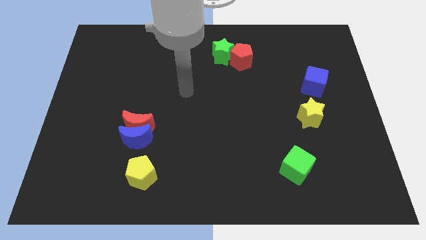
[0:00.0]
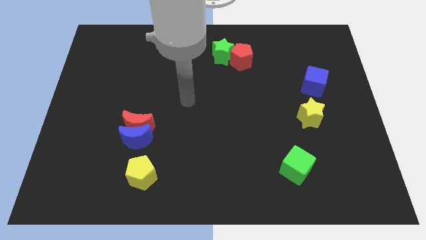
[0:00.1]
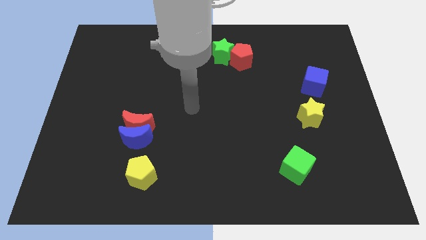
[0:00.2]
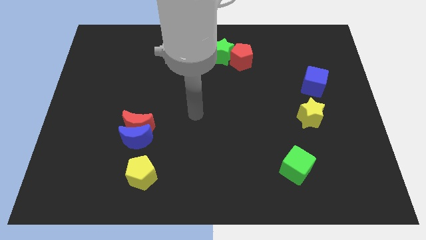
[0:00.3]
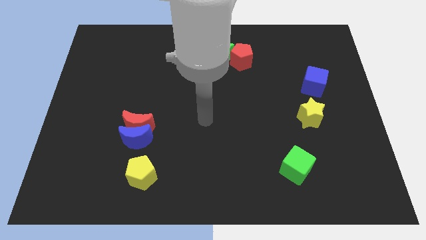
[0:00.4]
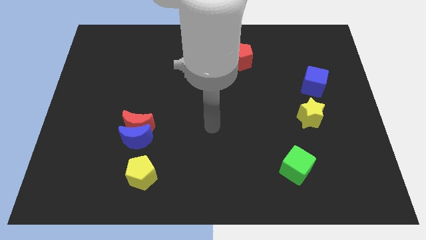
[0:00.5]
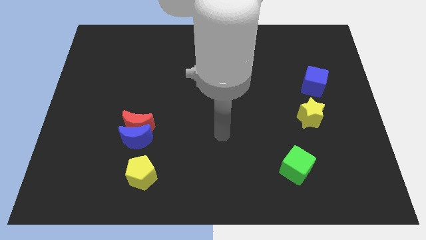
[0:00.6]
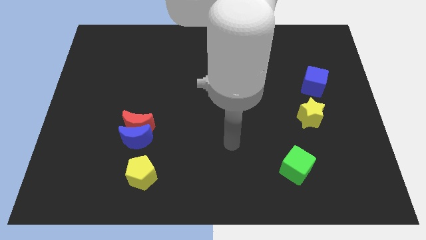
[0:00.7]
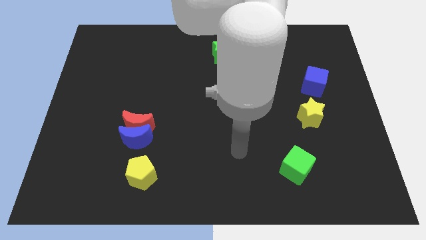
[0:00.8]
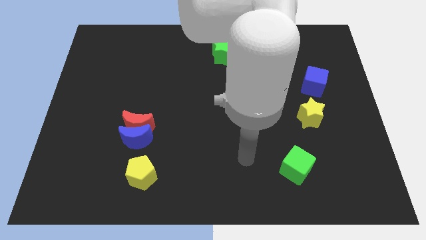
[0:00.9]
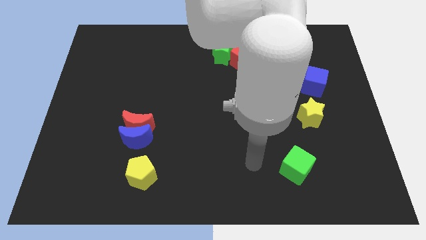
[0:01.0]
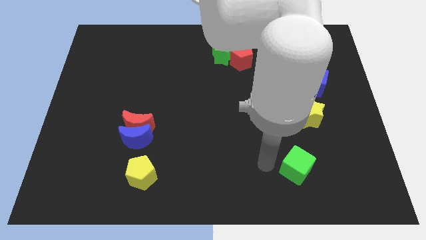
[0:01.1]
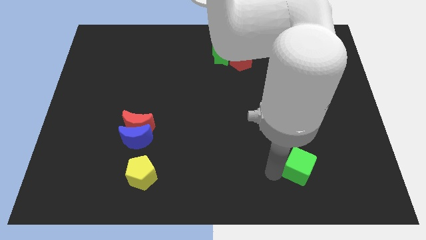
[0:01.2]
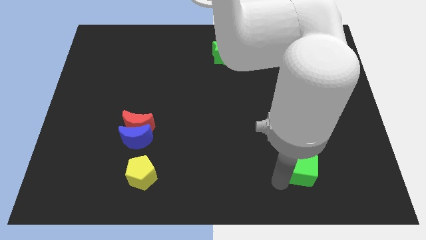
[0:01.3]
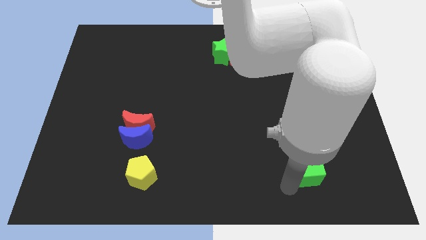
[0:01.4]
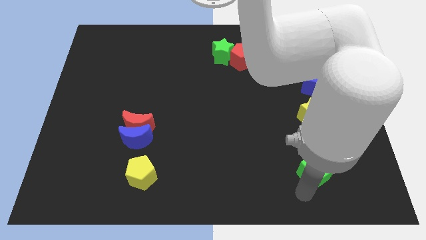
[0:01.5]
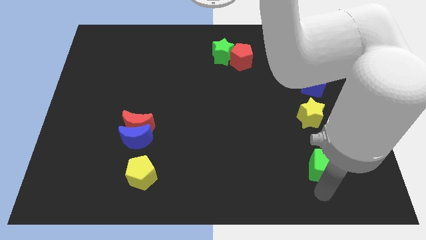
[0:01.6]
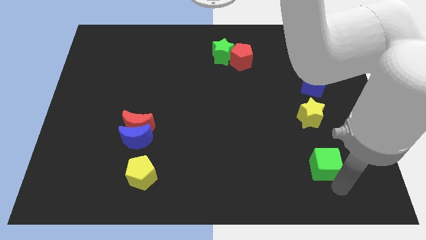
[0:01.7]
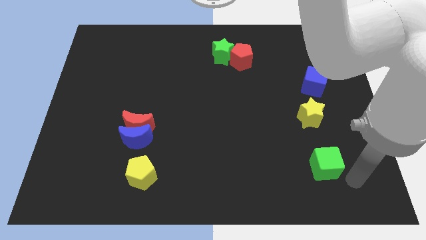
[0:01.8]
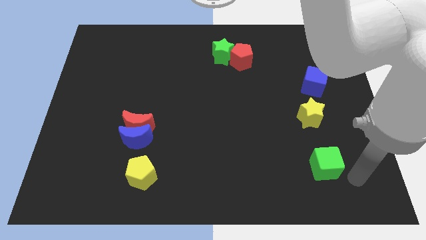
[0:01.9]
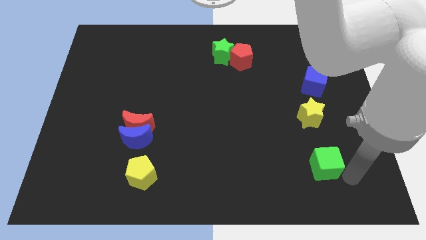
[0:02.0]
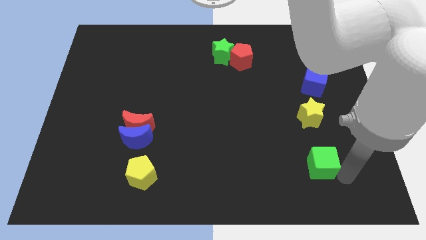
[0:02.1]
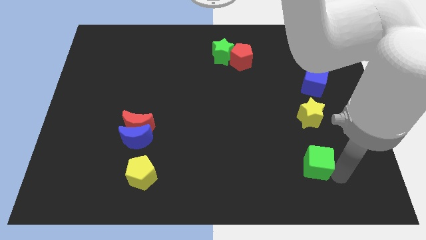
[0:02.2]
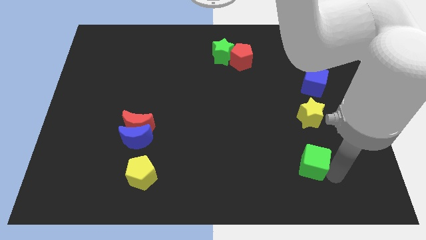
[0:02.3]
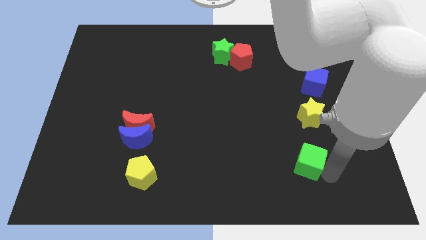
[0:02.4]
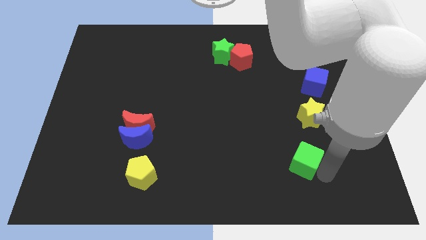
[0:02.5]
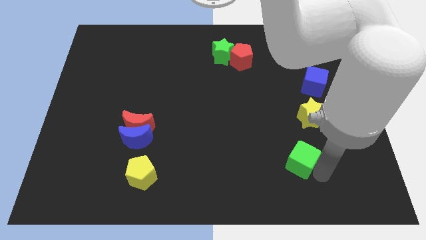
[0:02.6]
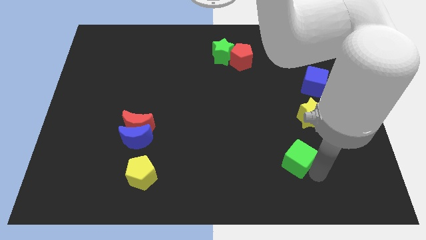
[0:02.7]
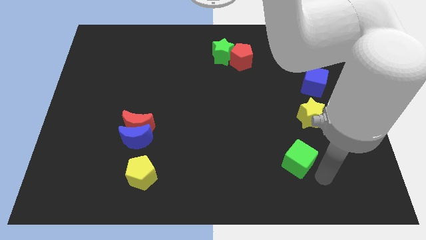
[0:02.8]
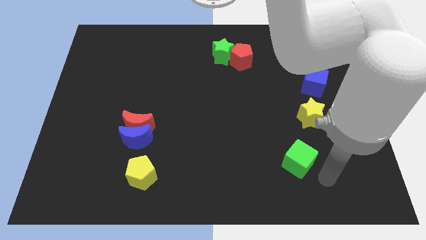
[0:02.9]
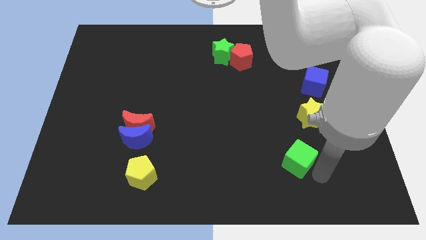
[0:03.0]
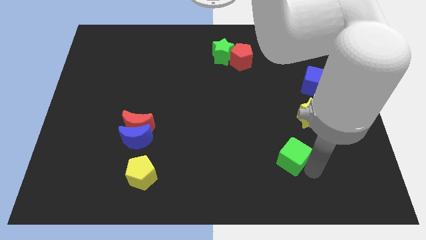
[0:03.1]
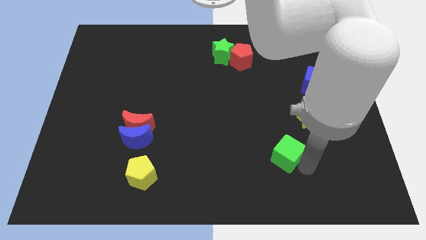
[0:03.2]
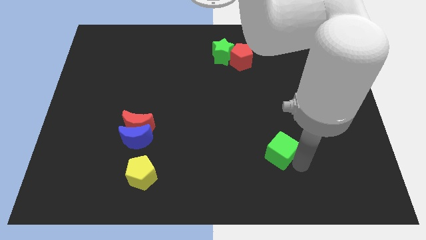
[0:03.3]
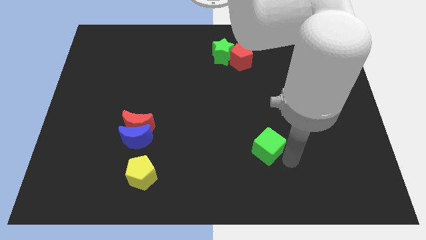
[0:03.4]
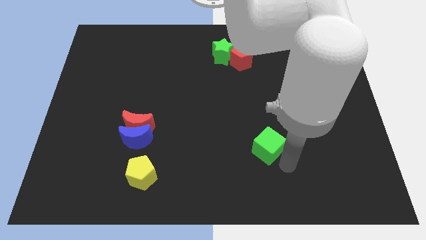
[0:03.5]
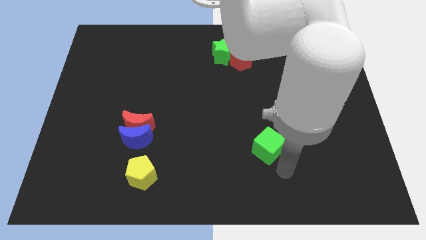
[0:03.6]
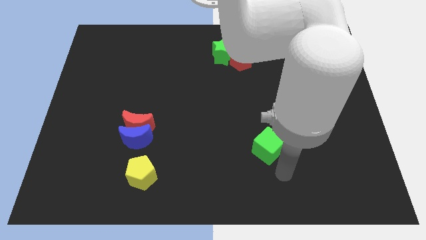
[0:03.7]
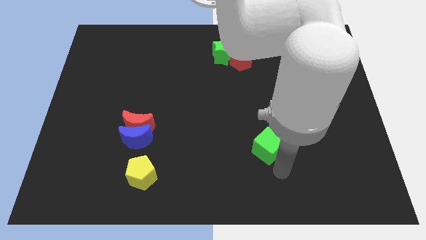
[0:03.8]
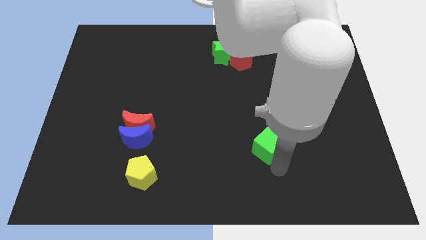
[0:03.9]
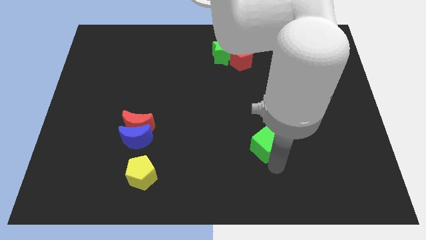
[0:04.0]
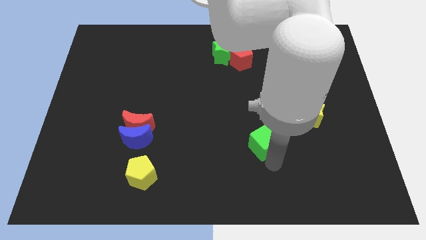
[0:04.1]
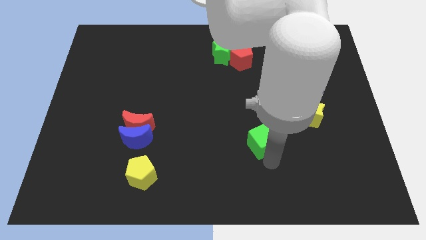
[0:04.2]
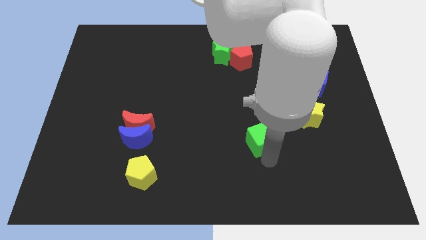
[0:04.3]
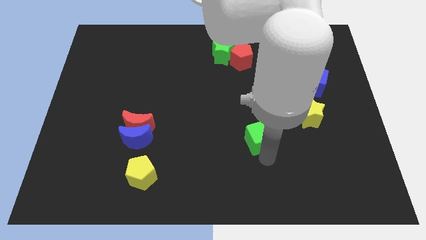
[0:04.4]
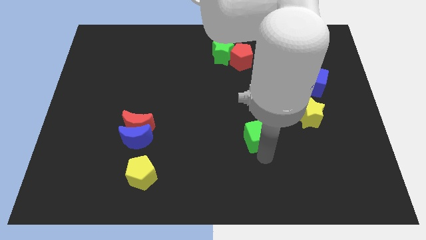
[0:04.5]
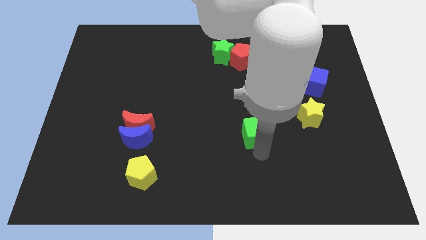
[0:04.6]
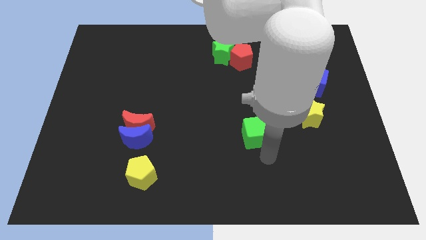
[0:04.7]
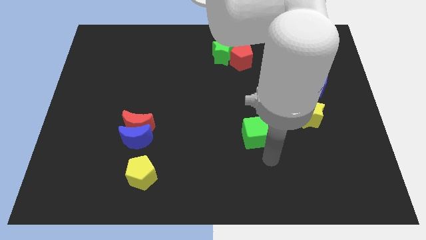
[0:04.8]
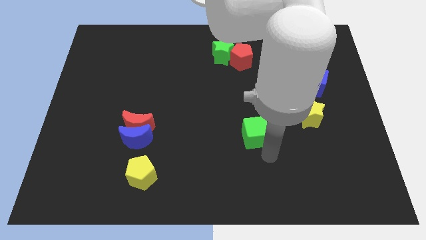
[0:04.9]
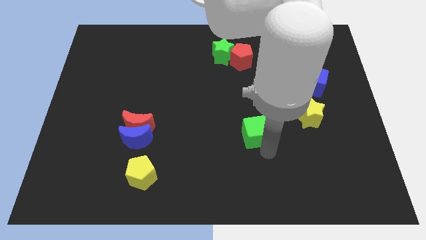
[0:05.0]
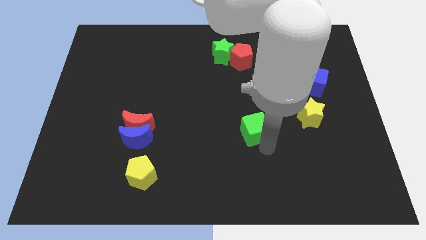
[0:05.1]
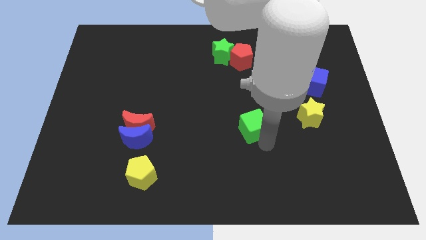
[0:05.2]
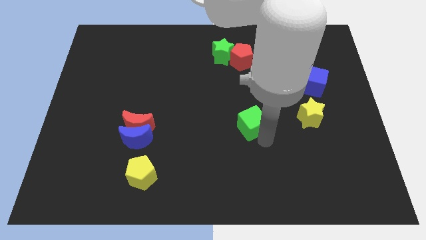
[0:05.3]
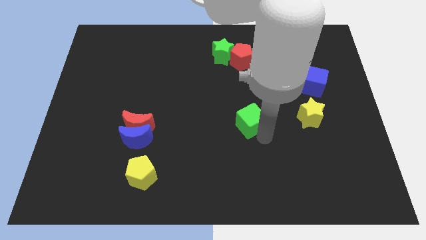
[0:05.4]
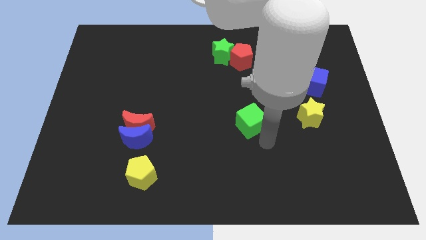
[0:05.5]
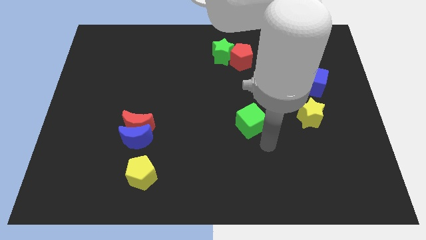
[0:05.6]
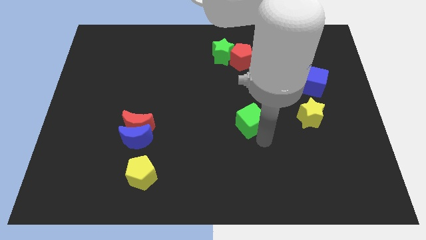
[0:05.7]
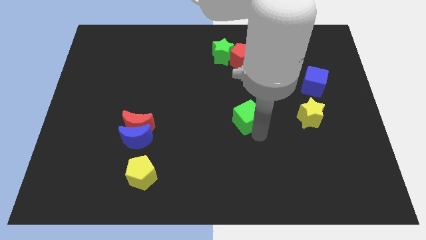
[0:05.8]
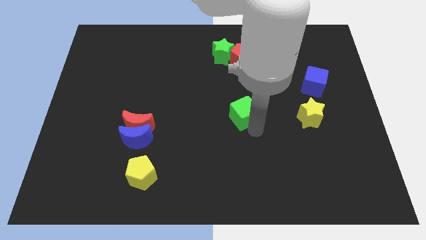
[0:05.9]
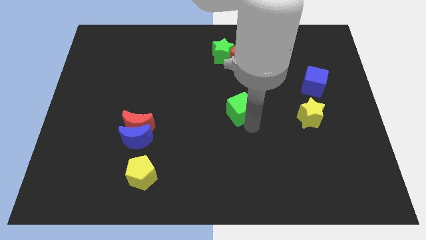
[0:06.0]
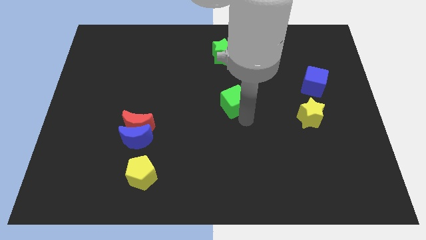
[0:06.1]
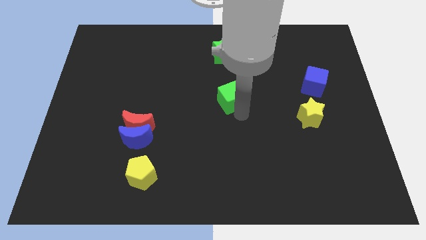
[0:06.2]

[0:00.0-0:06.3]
slide the green cube to the bottom of the green star
